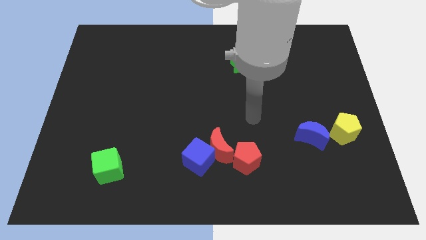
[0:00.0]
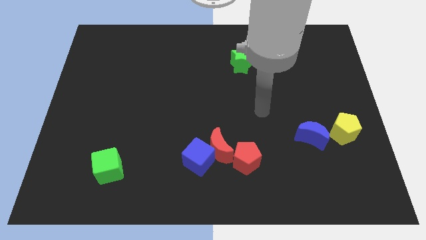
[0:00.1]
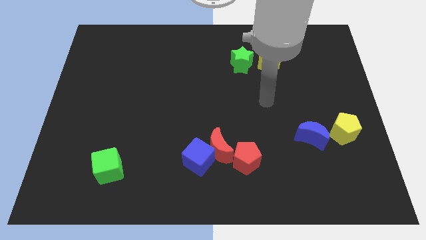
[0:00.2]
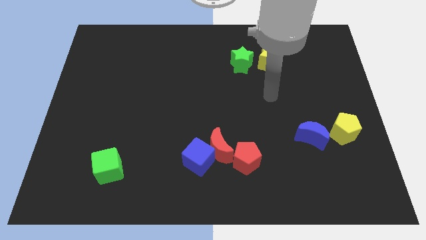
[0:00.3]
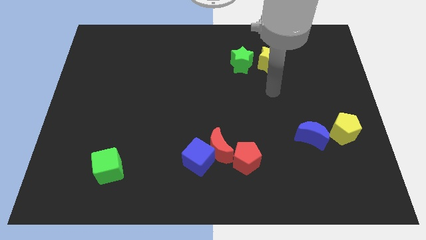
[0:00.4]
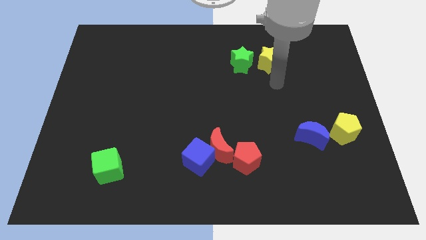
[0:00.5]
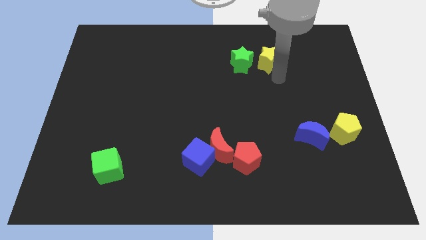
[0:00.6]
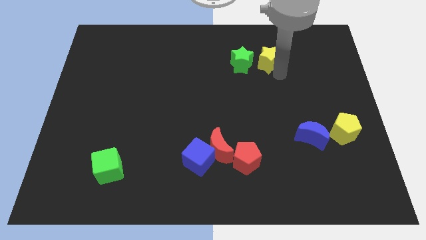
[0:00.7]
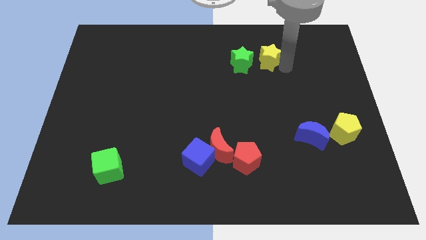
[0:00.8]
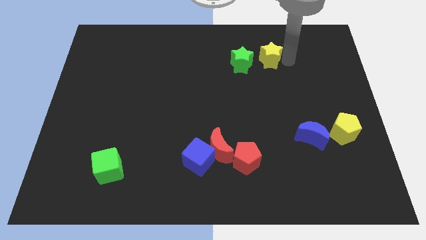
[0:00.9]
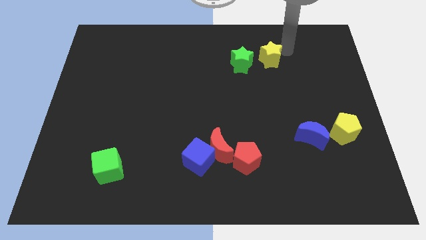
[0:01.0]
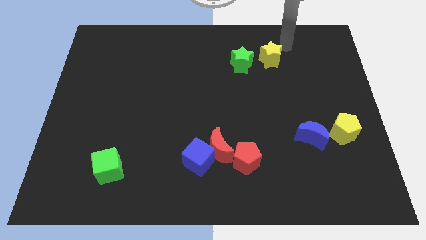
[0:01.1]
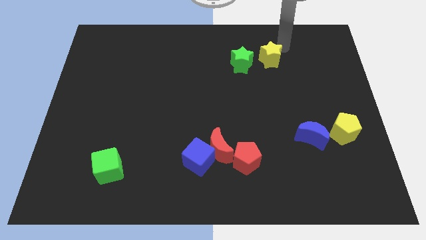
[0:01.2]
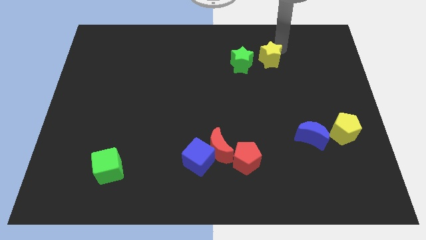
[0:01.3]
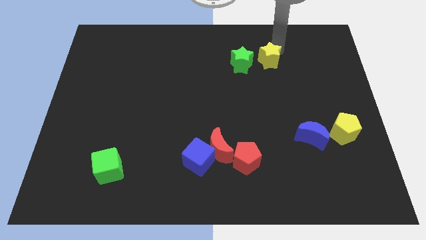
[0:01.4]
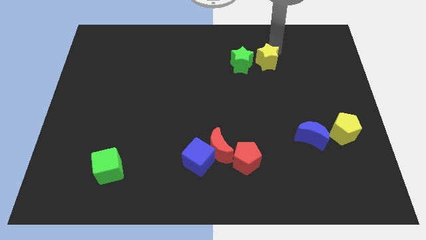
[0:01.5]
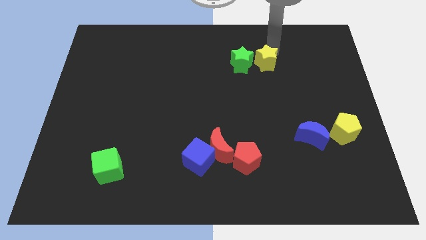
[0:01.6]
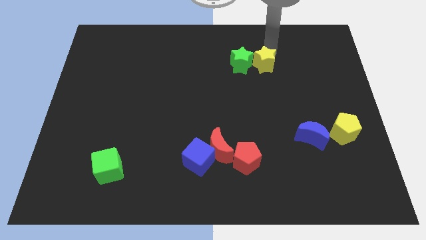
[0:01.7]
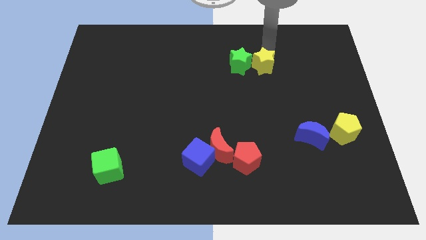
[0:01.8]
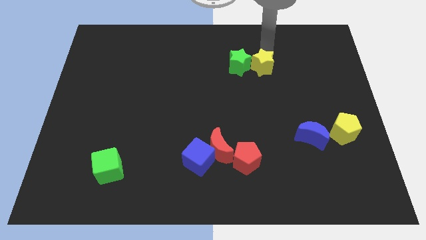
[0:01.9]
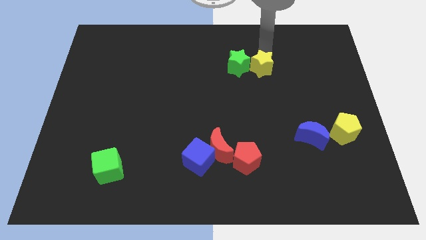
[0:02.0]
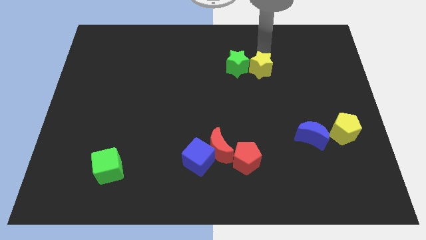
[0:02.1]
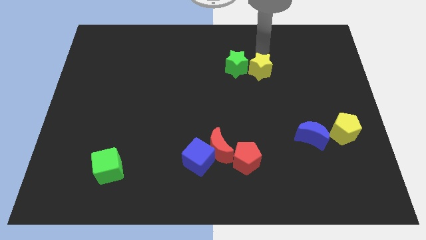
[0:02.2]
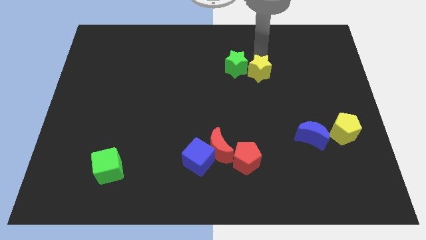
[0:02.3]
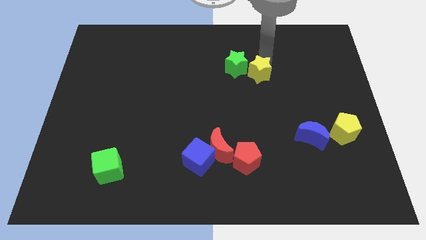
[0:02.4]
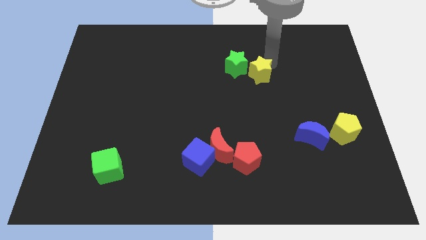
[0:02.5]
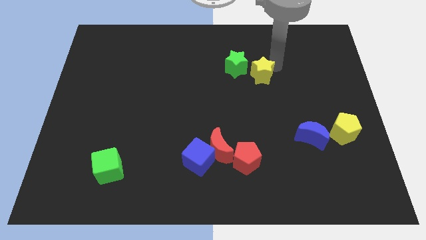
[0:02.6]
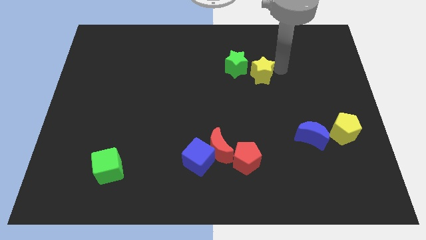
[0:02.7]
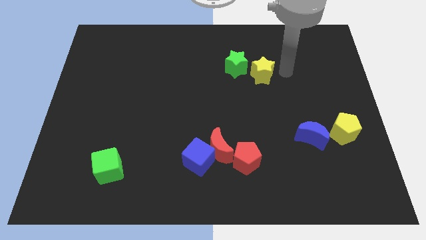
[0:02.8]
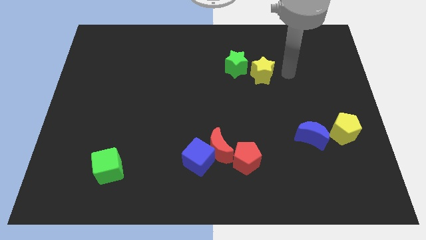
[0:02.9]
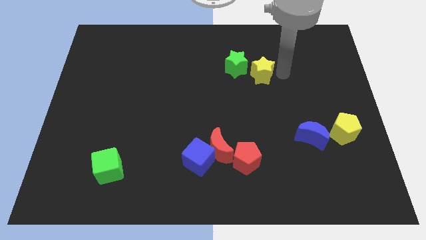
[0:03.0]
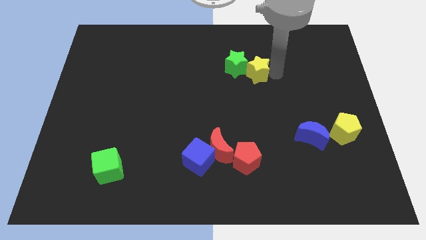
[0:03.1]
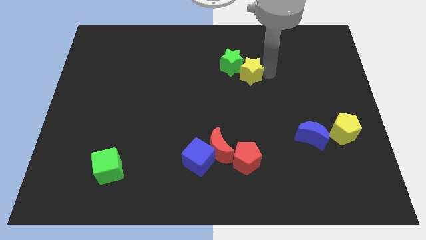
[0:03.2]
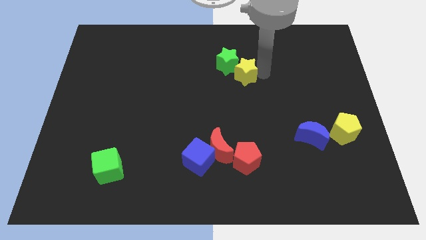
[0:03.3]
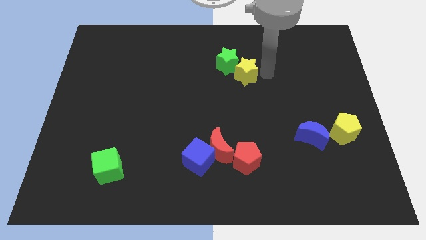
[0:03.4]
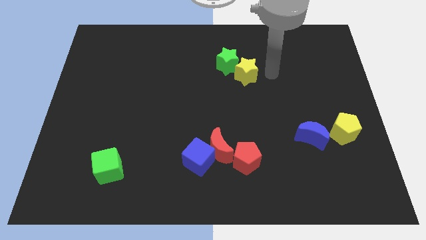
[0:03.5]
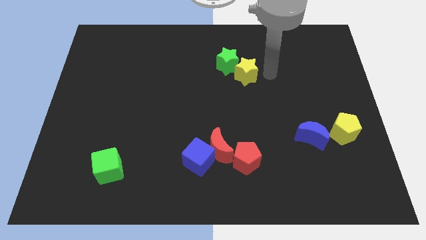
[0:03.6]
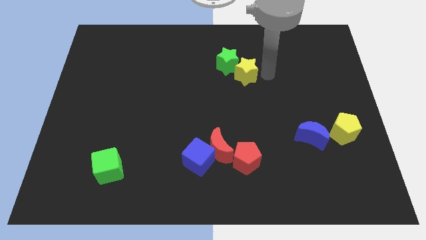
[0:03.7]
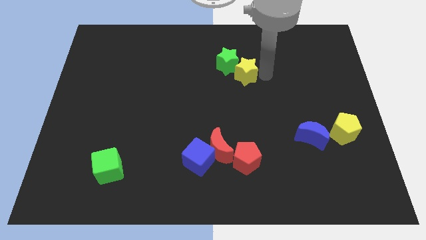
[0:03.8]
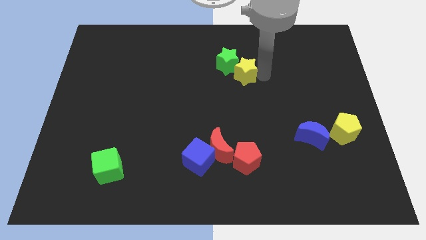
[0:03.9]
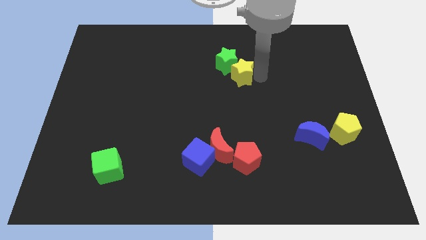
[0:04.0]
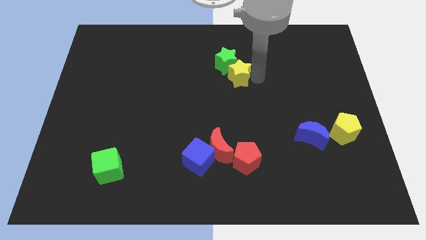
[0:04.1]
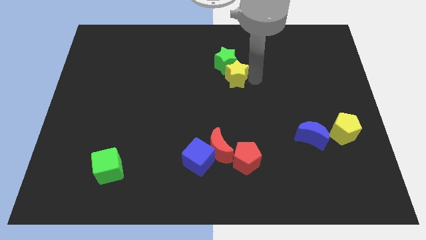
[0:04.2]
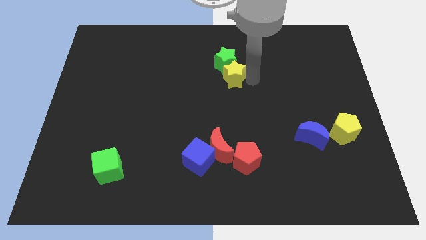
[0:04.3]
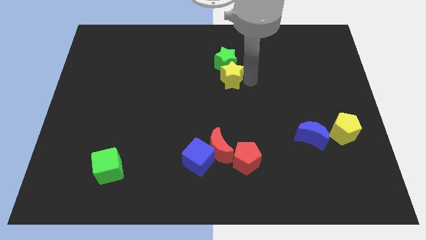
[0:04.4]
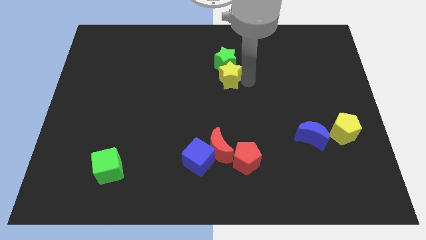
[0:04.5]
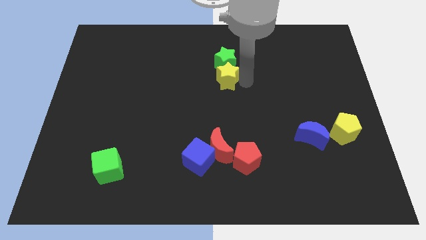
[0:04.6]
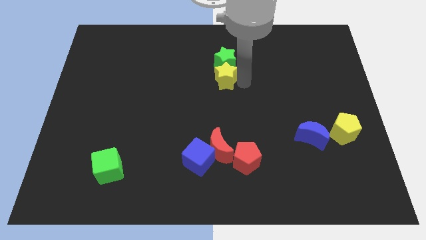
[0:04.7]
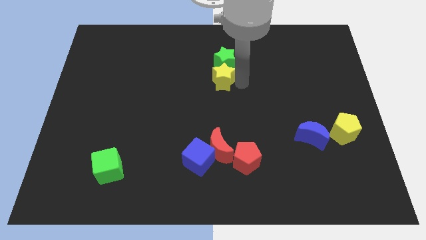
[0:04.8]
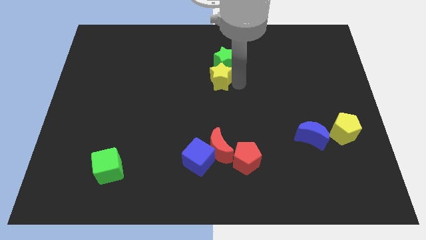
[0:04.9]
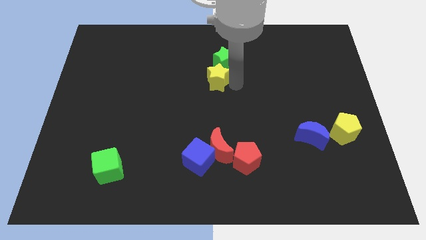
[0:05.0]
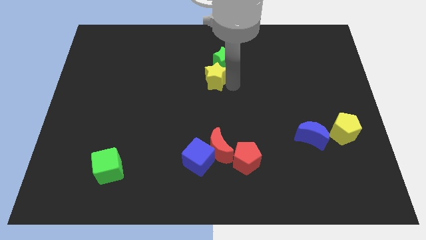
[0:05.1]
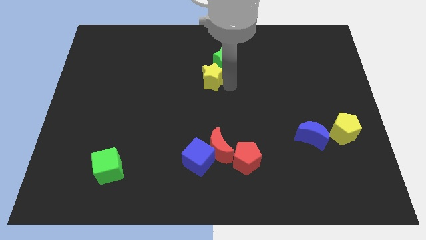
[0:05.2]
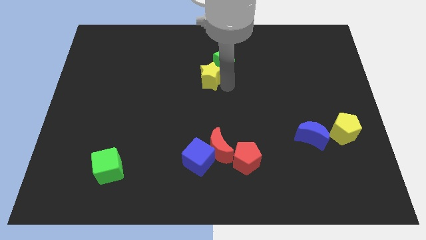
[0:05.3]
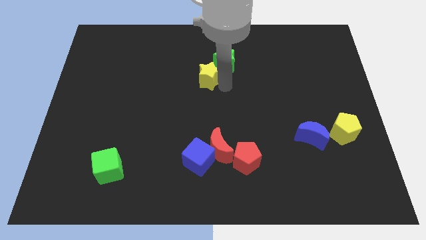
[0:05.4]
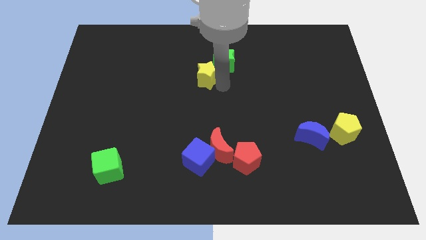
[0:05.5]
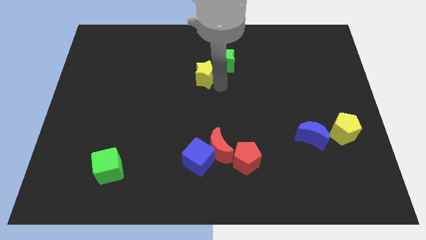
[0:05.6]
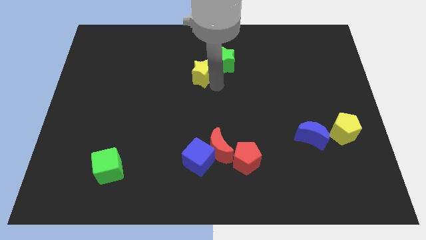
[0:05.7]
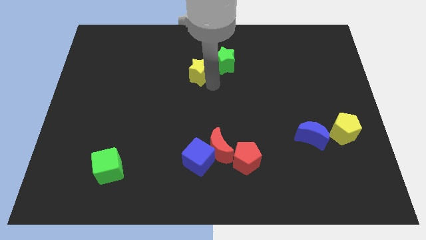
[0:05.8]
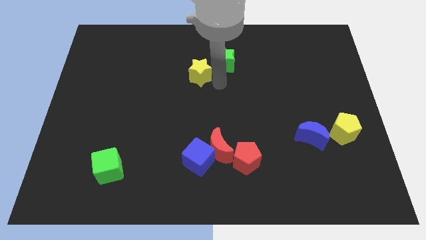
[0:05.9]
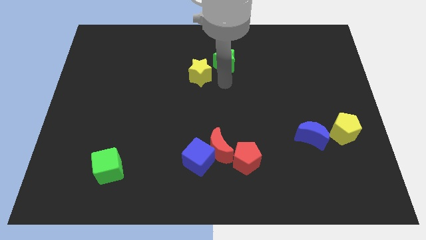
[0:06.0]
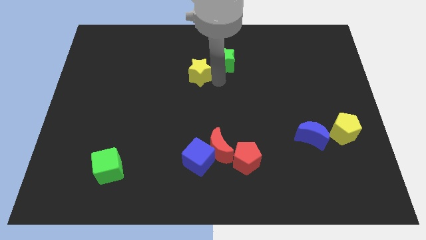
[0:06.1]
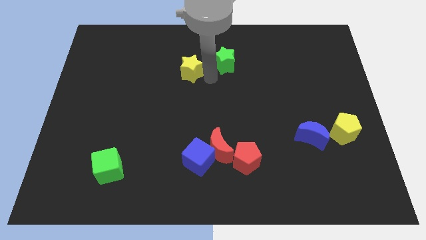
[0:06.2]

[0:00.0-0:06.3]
push the yellow star to the left

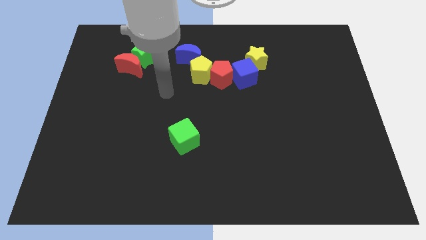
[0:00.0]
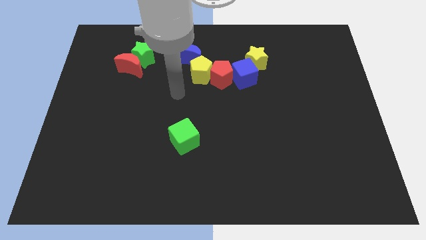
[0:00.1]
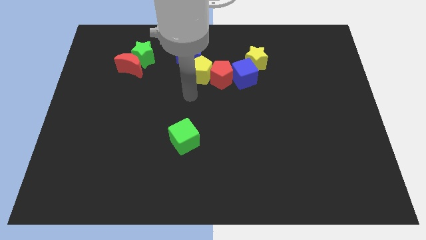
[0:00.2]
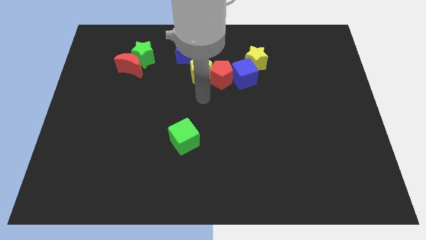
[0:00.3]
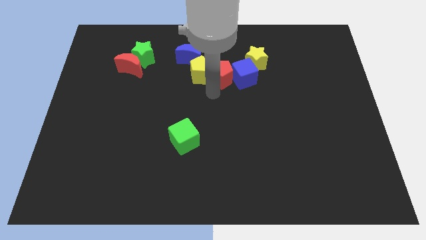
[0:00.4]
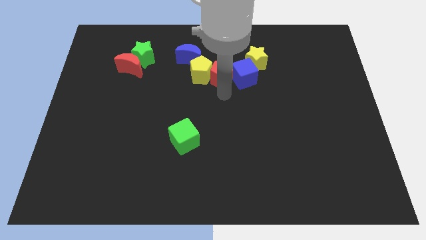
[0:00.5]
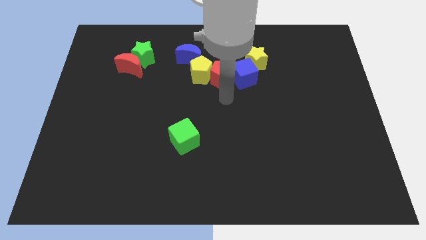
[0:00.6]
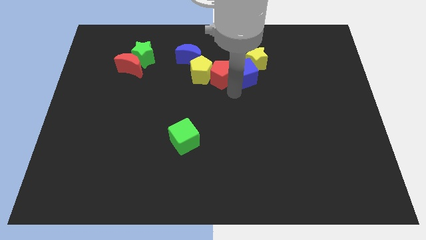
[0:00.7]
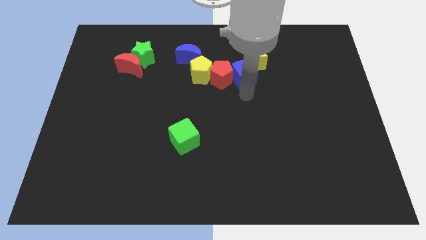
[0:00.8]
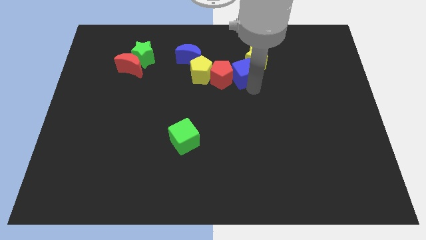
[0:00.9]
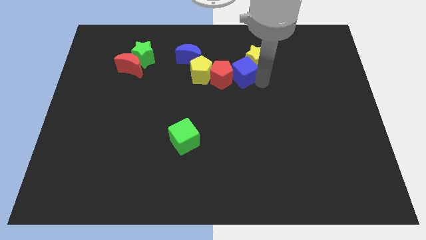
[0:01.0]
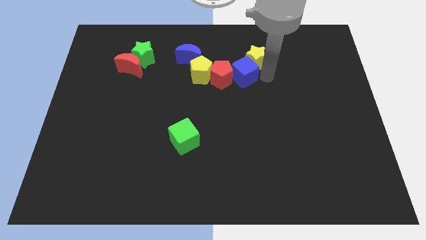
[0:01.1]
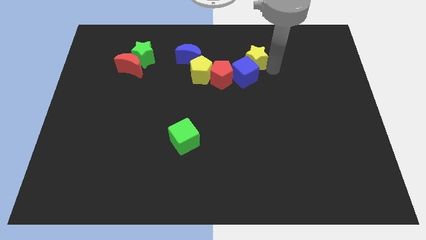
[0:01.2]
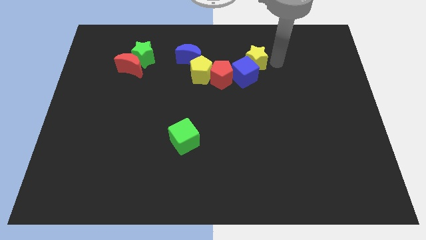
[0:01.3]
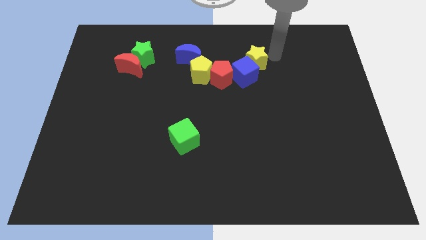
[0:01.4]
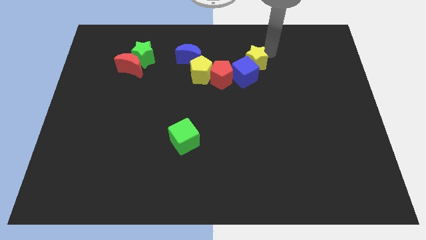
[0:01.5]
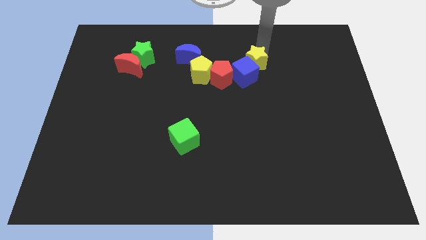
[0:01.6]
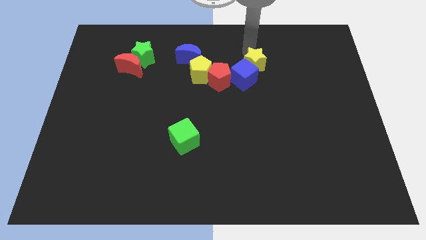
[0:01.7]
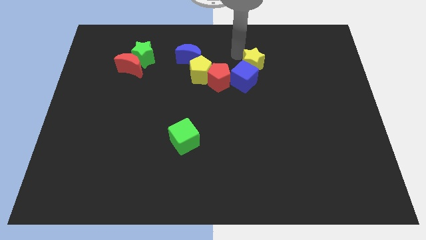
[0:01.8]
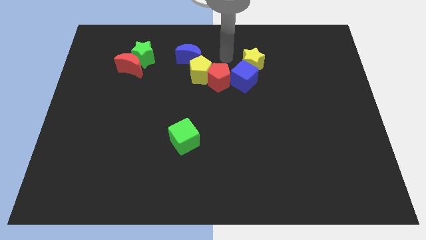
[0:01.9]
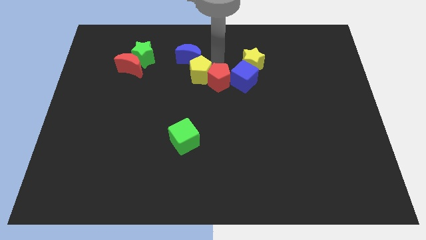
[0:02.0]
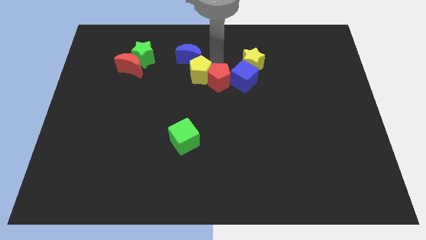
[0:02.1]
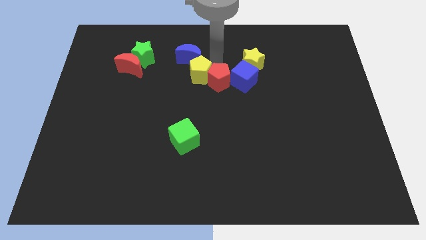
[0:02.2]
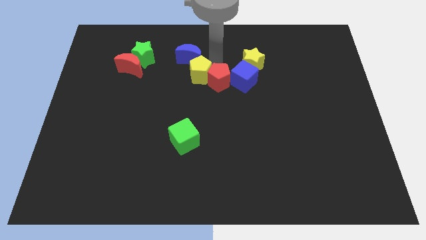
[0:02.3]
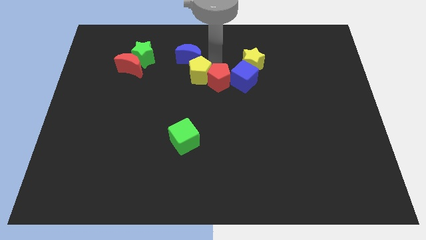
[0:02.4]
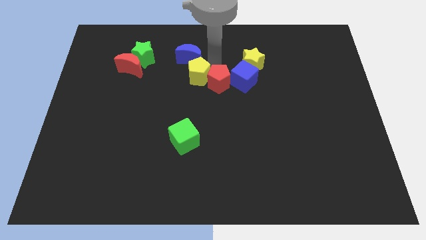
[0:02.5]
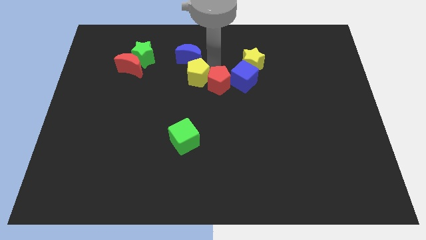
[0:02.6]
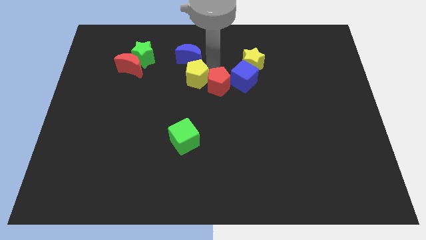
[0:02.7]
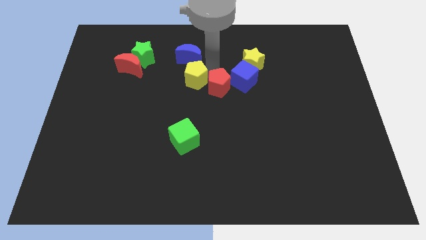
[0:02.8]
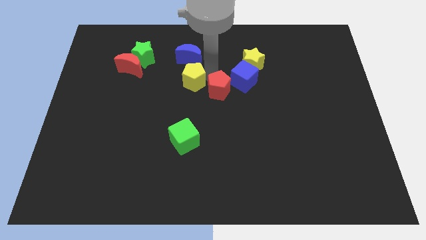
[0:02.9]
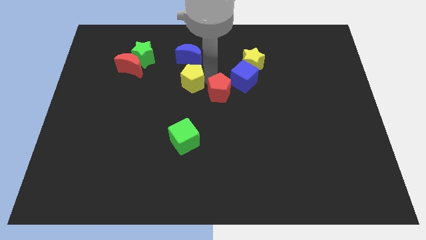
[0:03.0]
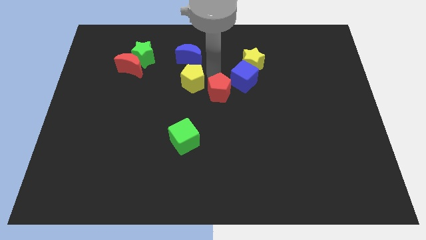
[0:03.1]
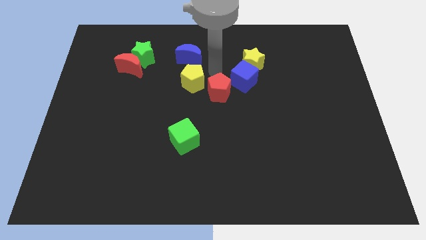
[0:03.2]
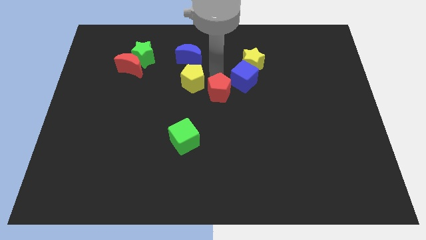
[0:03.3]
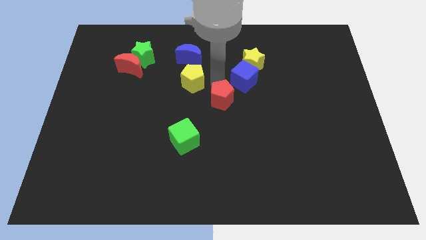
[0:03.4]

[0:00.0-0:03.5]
push the red pentagon downwards a little bit
